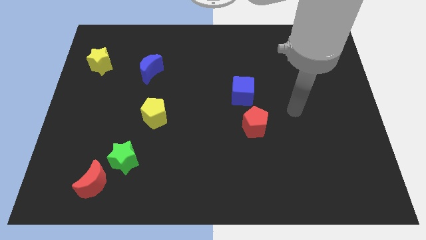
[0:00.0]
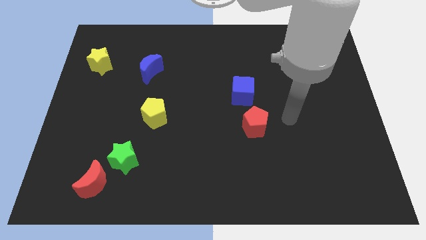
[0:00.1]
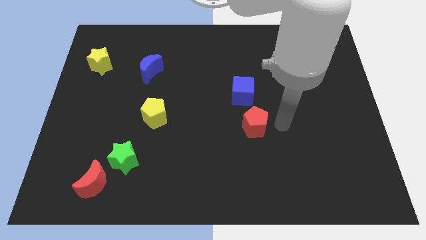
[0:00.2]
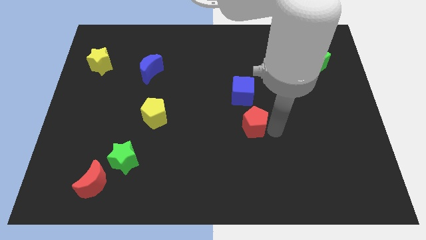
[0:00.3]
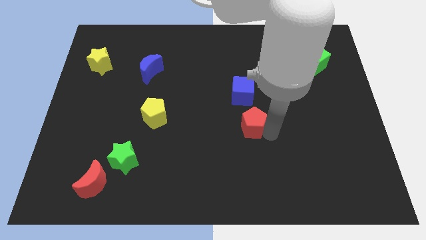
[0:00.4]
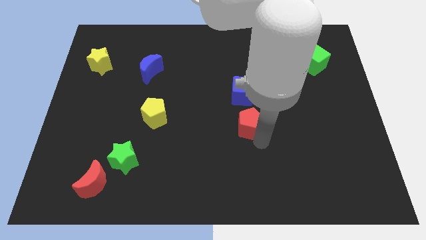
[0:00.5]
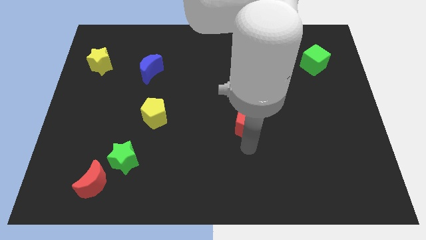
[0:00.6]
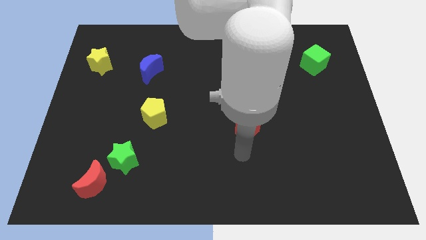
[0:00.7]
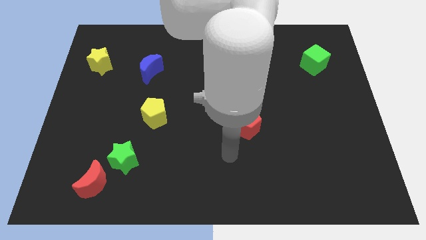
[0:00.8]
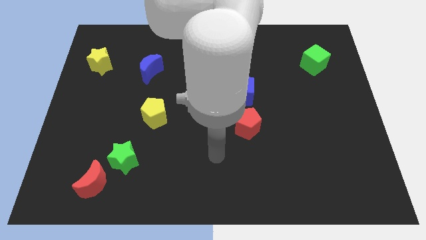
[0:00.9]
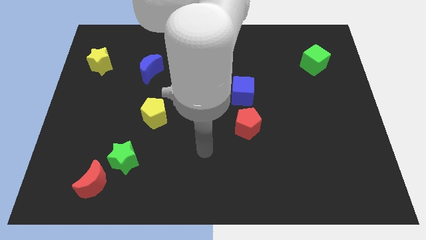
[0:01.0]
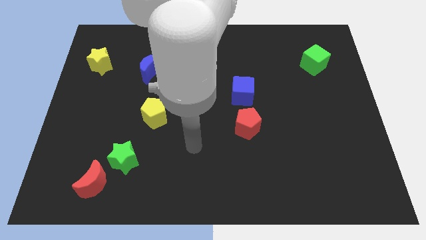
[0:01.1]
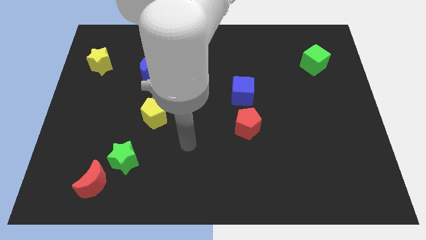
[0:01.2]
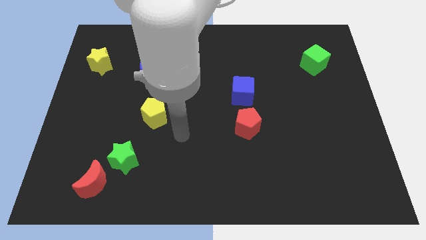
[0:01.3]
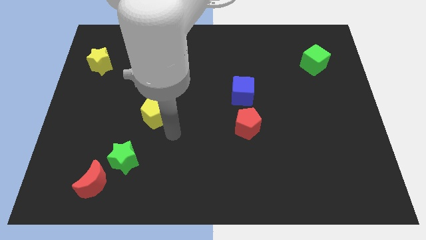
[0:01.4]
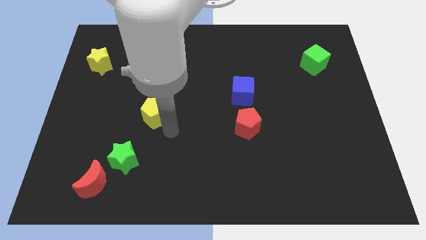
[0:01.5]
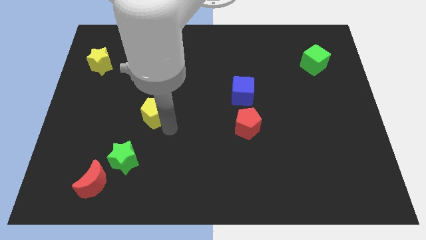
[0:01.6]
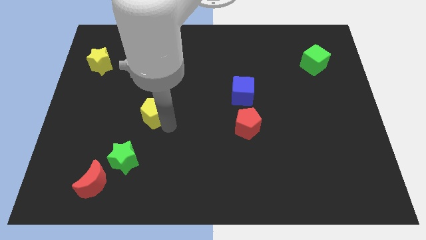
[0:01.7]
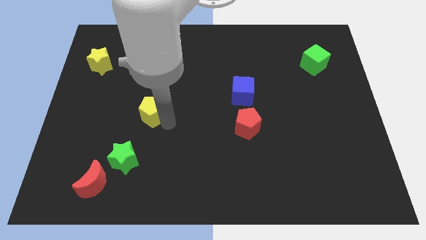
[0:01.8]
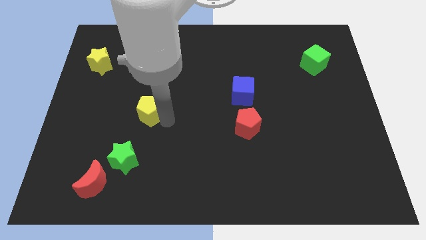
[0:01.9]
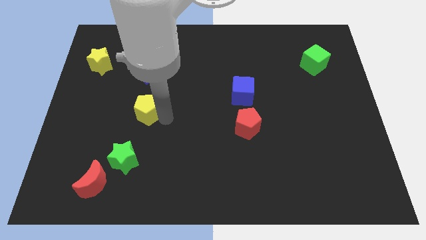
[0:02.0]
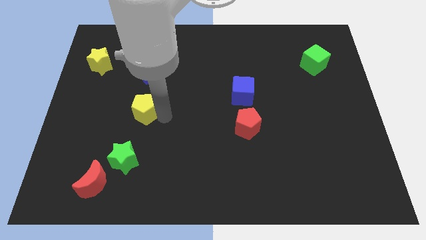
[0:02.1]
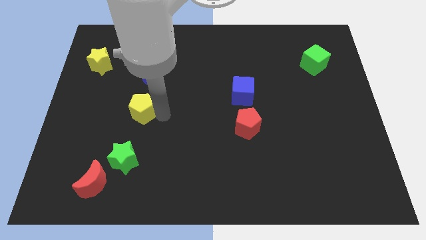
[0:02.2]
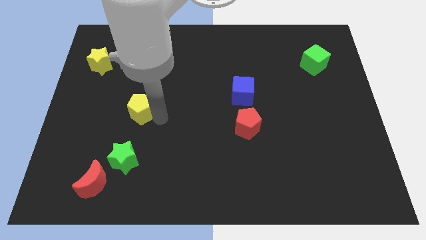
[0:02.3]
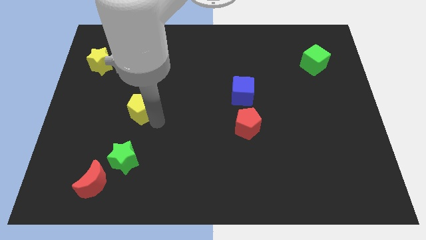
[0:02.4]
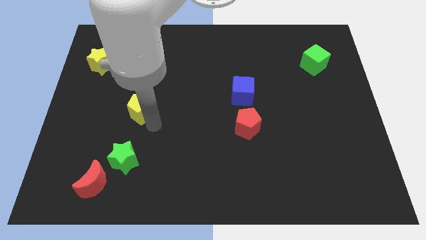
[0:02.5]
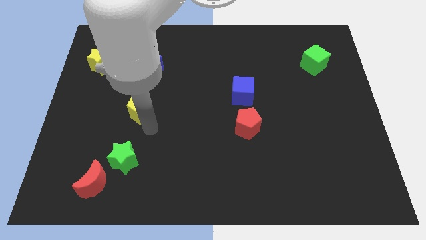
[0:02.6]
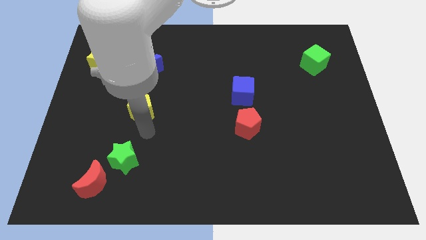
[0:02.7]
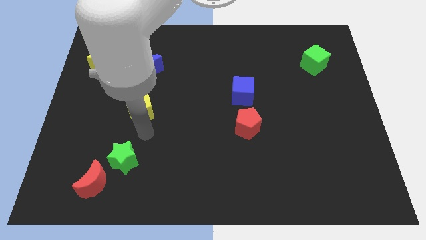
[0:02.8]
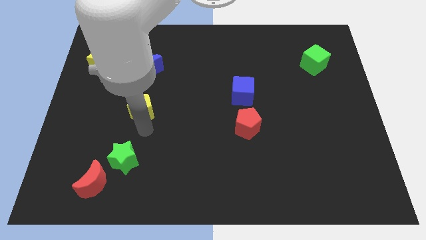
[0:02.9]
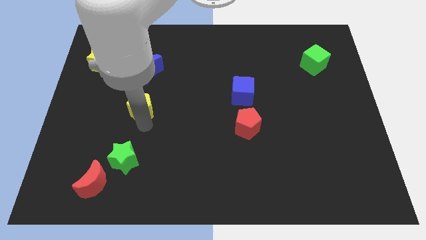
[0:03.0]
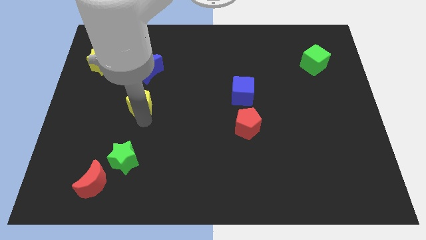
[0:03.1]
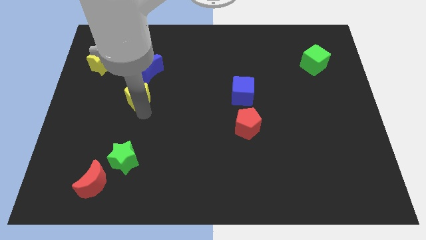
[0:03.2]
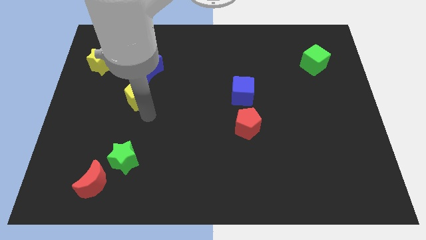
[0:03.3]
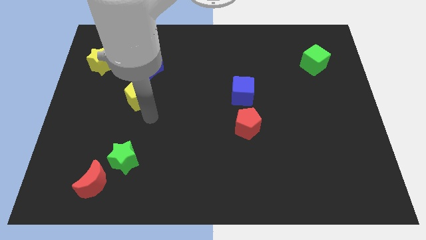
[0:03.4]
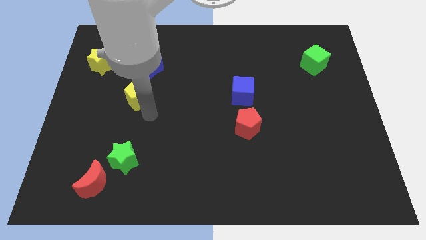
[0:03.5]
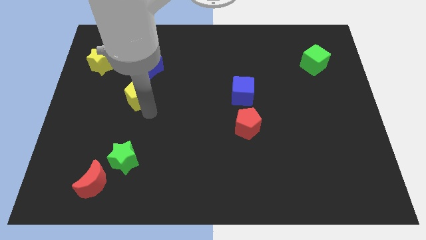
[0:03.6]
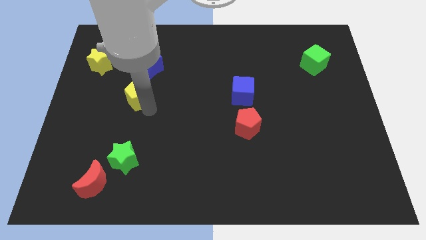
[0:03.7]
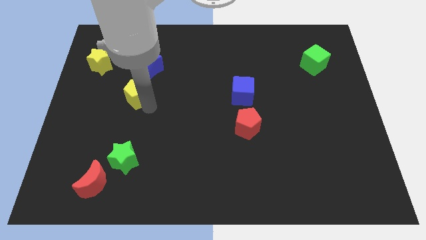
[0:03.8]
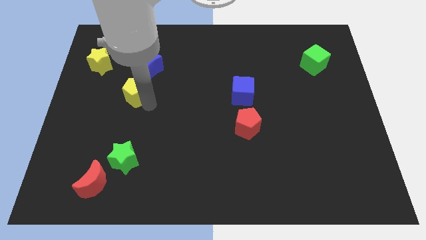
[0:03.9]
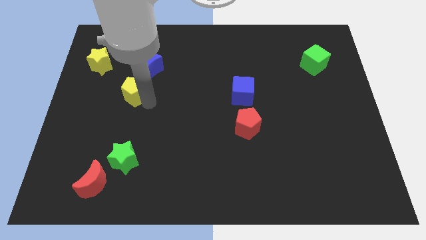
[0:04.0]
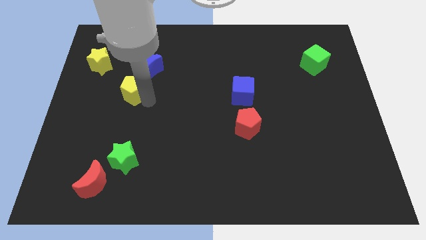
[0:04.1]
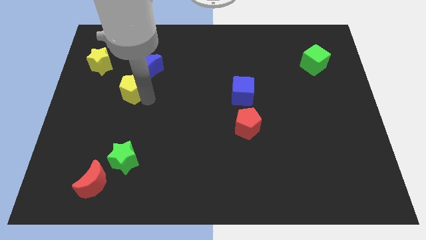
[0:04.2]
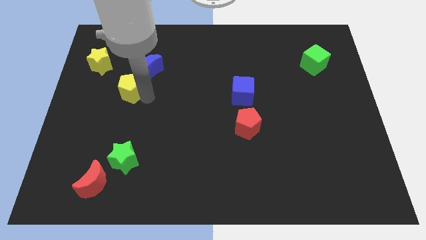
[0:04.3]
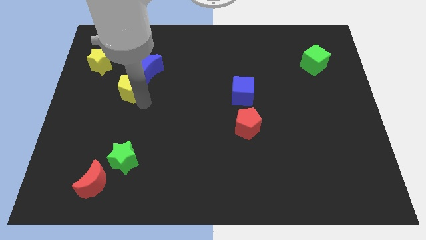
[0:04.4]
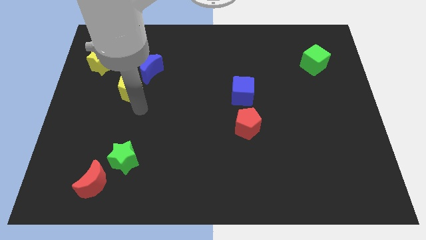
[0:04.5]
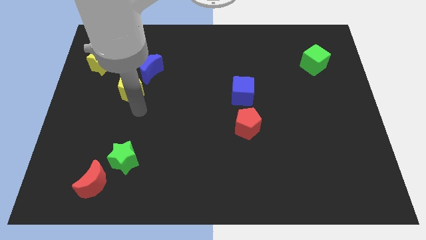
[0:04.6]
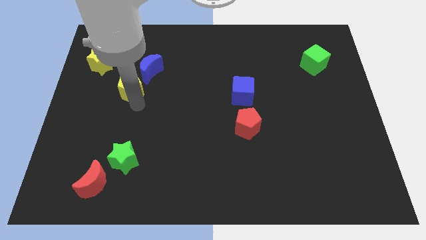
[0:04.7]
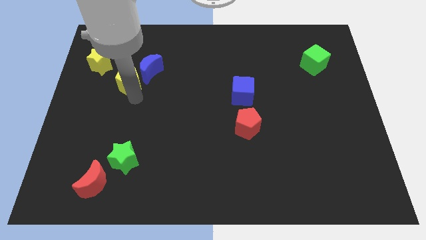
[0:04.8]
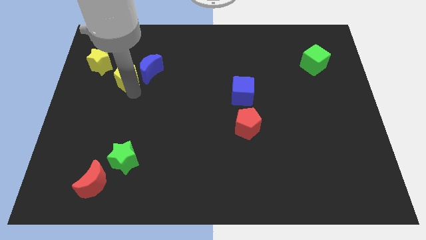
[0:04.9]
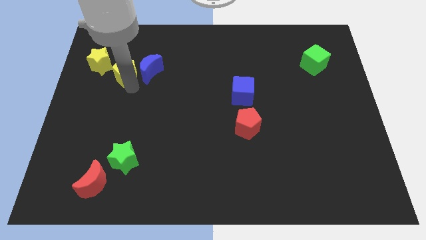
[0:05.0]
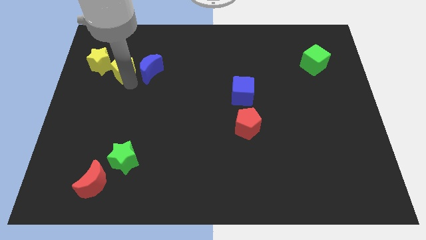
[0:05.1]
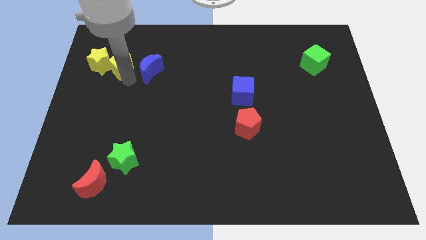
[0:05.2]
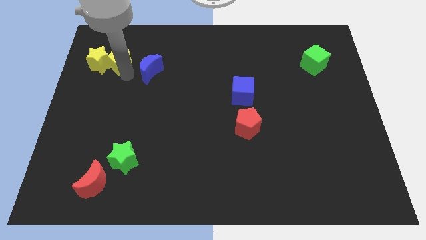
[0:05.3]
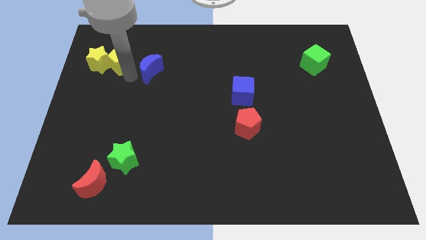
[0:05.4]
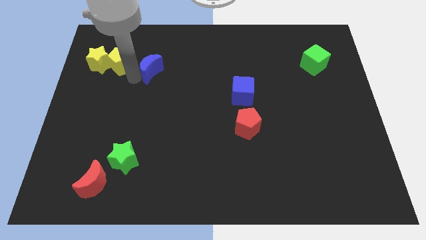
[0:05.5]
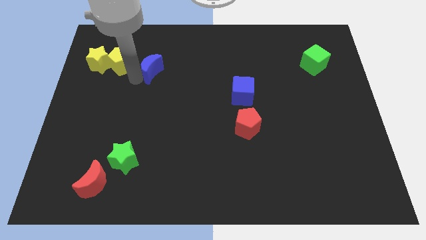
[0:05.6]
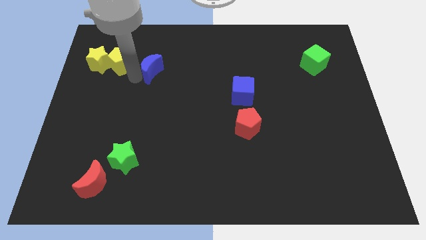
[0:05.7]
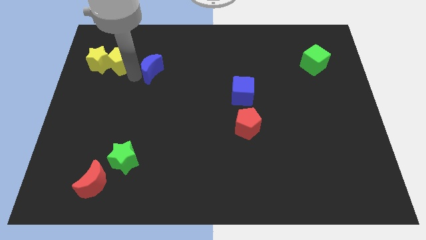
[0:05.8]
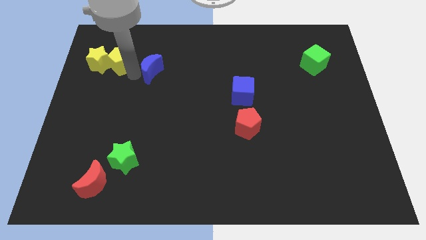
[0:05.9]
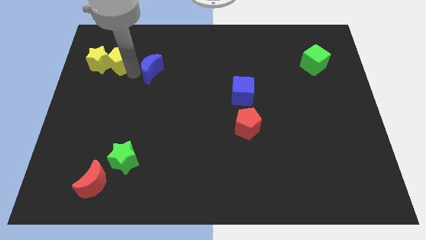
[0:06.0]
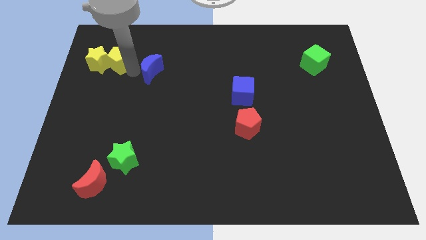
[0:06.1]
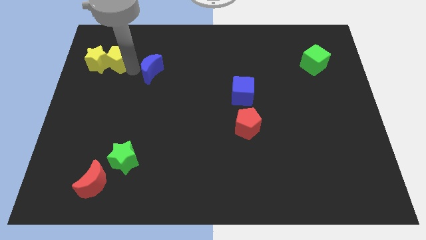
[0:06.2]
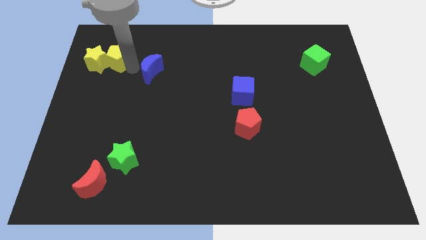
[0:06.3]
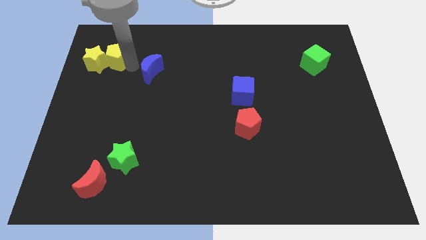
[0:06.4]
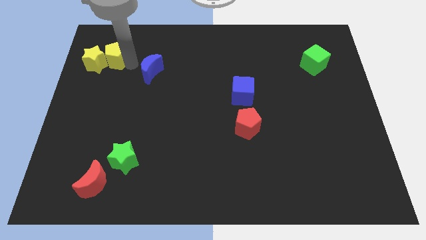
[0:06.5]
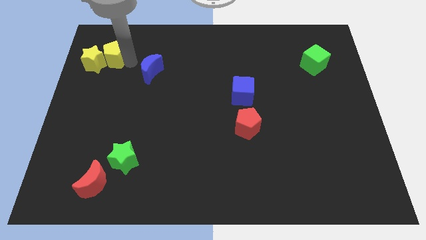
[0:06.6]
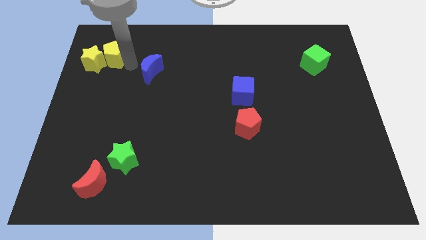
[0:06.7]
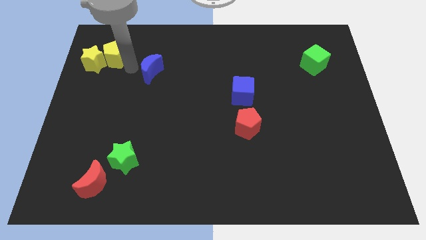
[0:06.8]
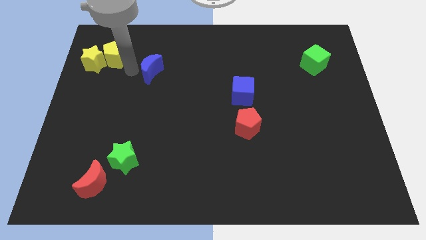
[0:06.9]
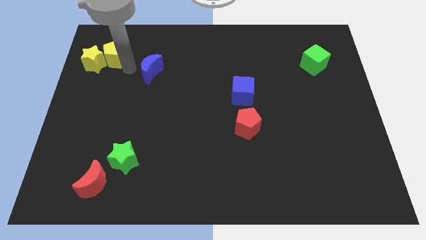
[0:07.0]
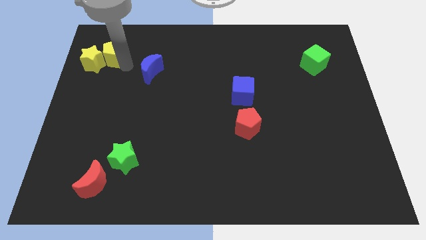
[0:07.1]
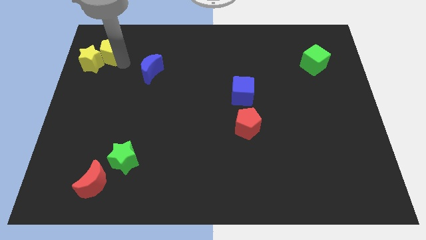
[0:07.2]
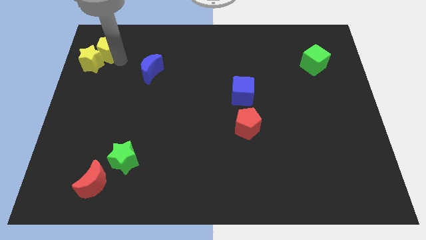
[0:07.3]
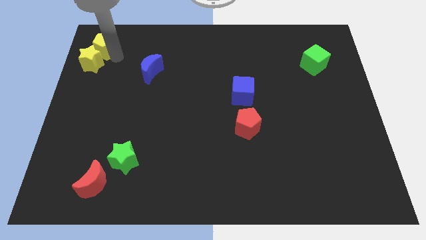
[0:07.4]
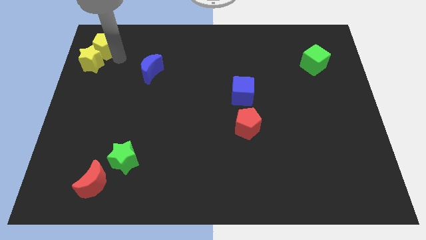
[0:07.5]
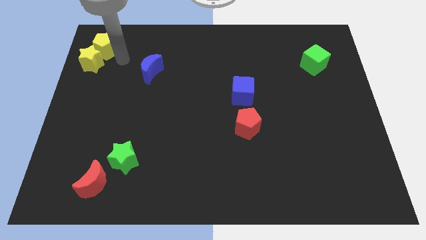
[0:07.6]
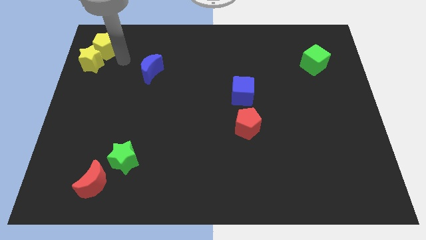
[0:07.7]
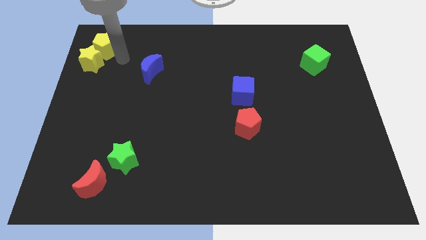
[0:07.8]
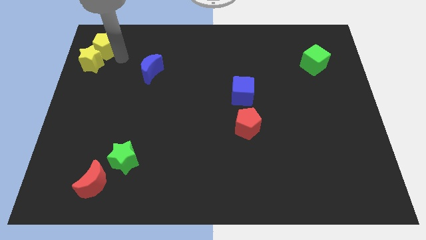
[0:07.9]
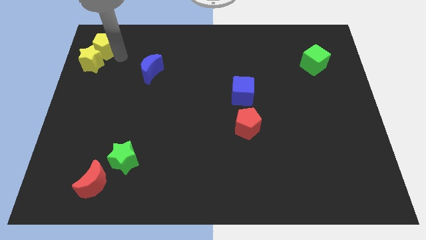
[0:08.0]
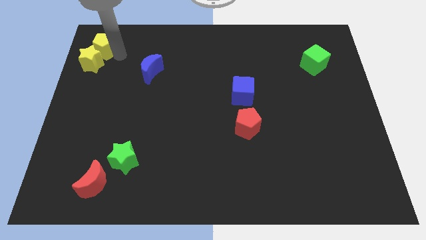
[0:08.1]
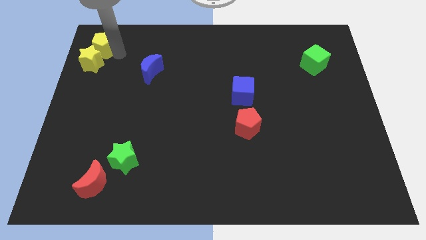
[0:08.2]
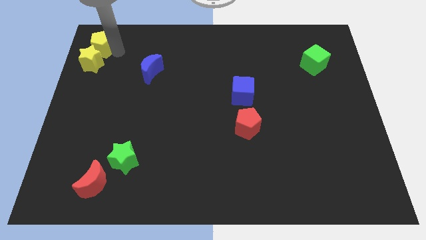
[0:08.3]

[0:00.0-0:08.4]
slide the yellow pentagon to the top left
